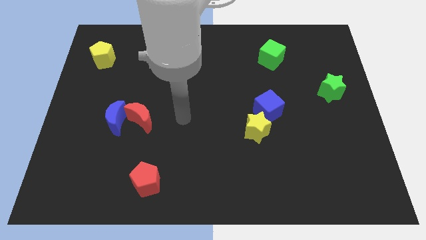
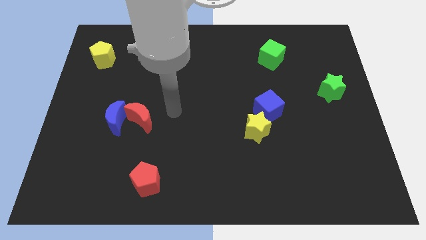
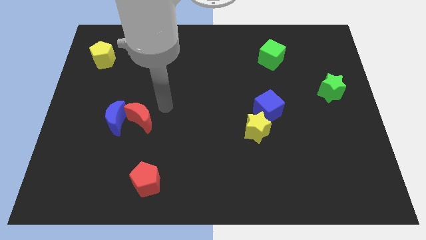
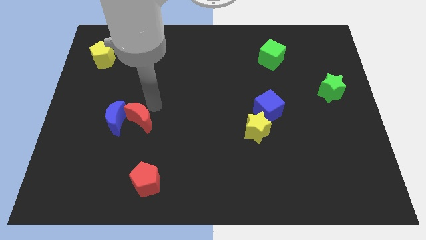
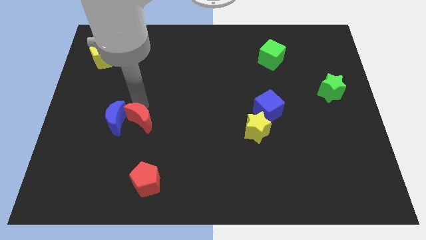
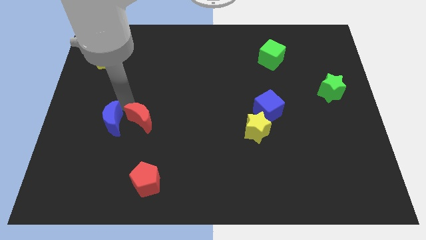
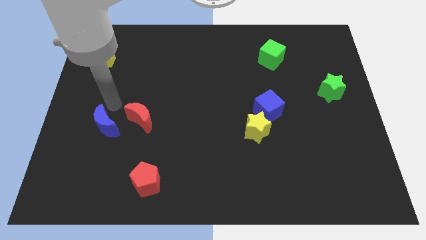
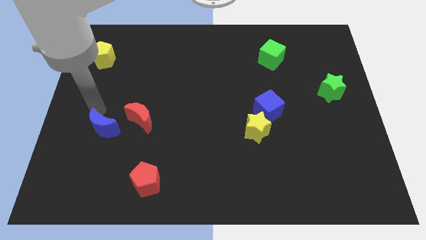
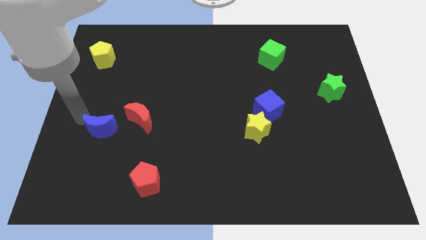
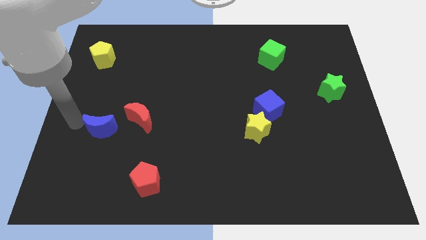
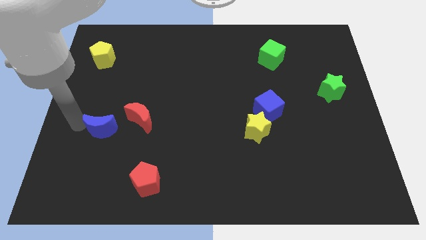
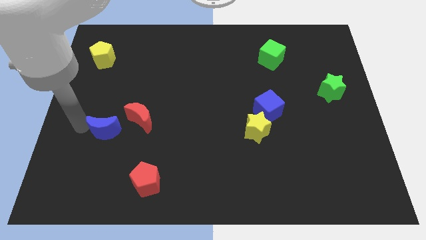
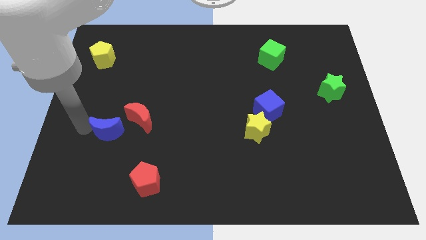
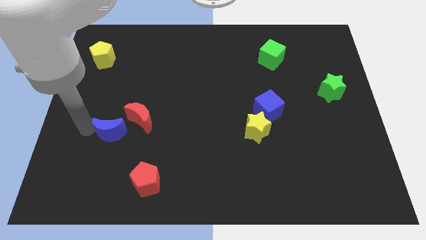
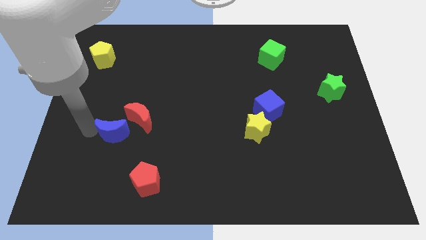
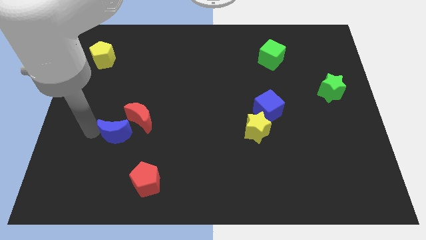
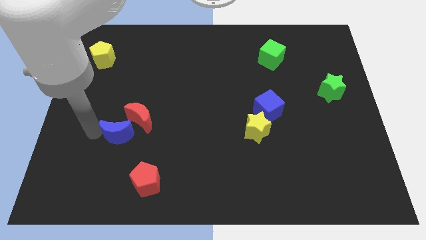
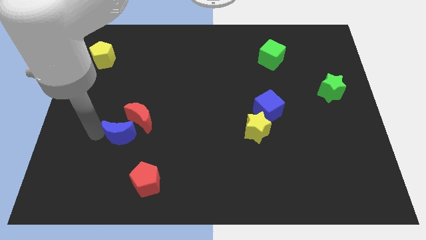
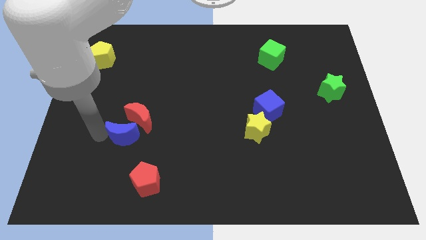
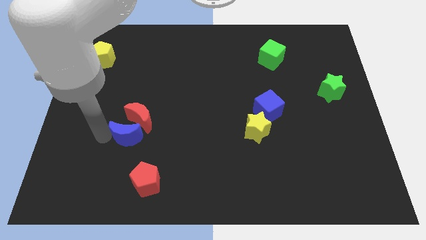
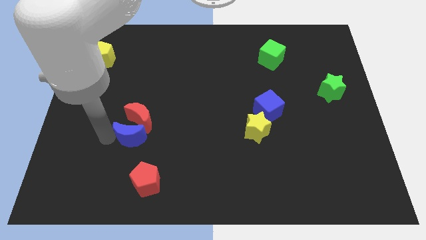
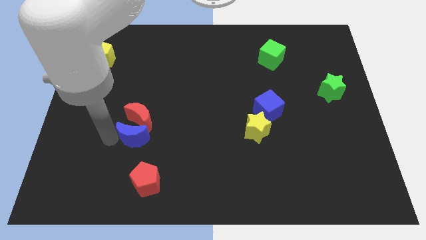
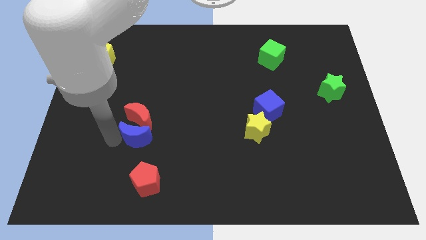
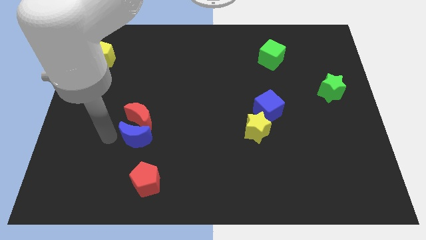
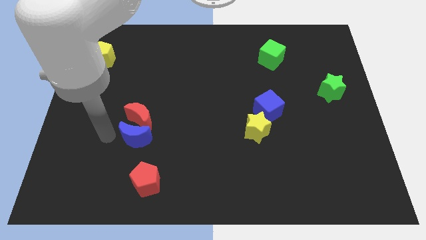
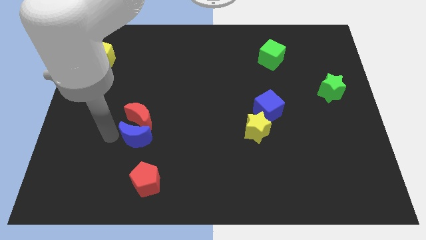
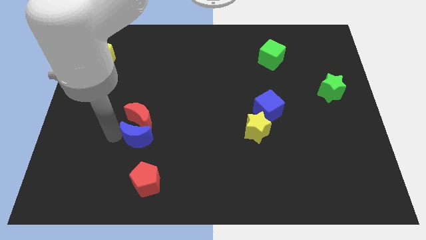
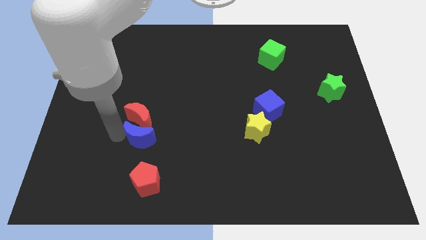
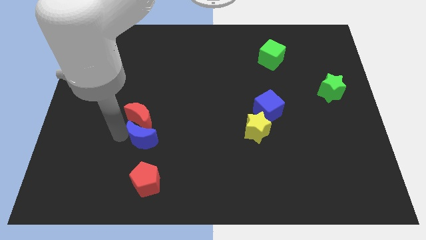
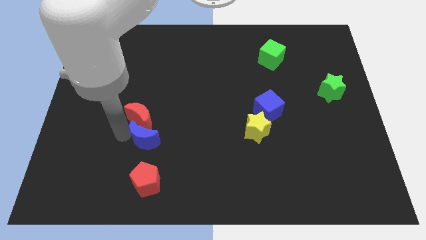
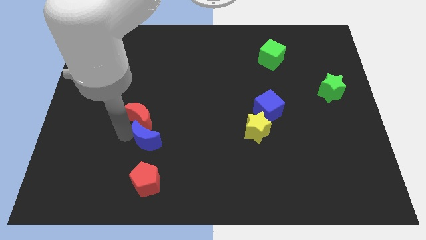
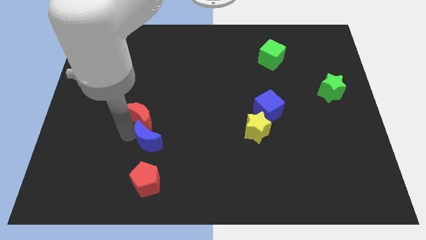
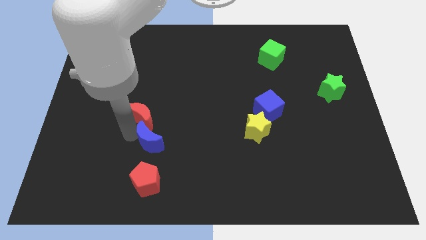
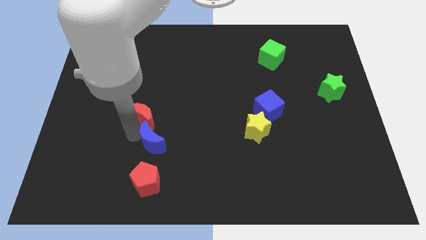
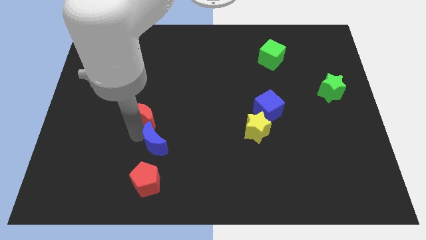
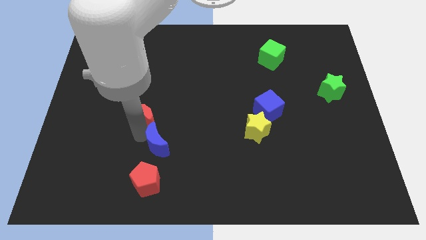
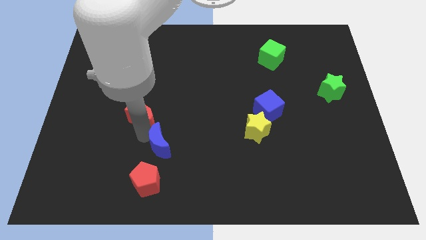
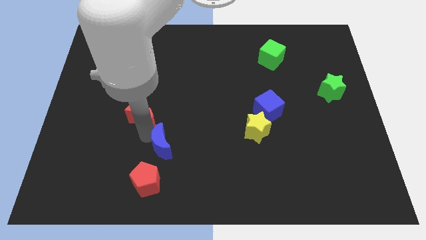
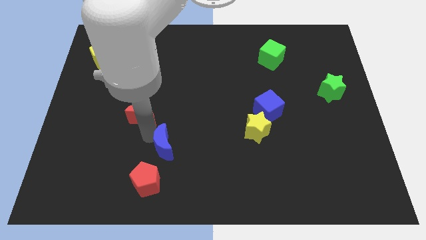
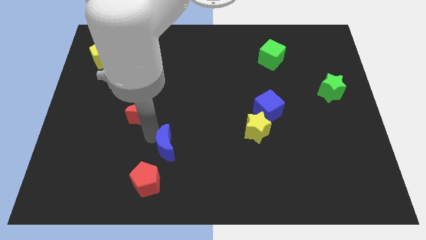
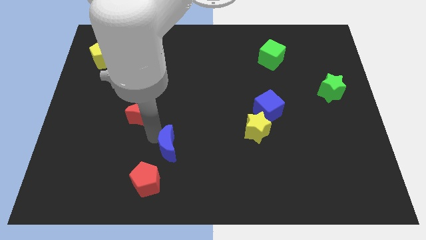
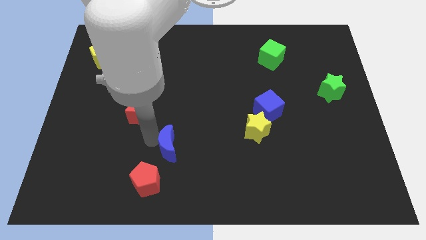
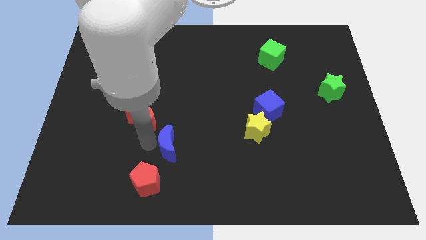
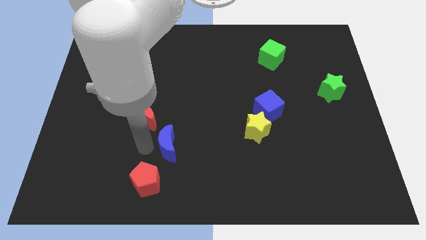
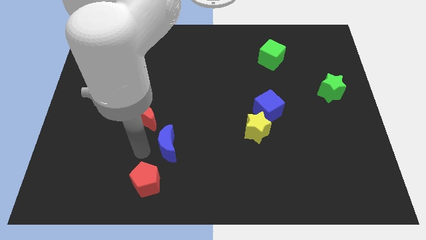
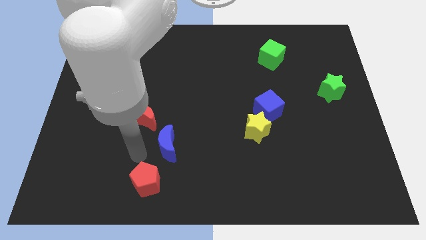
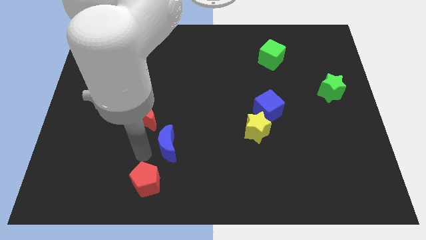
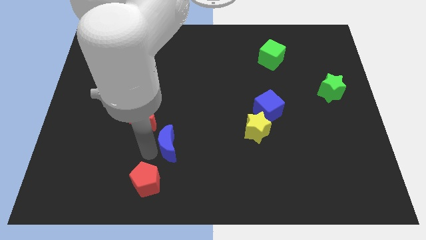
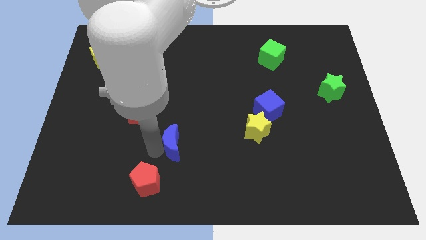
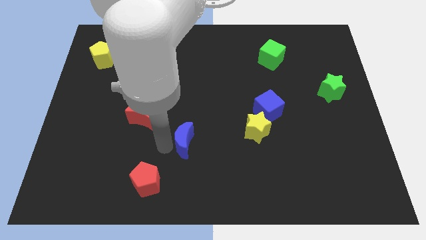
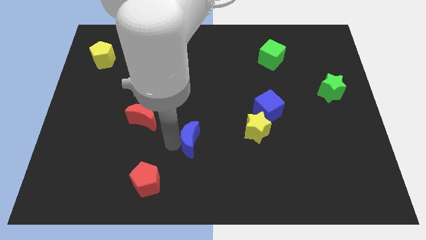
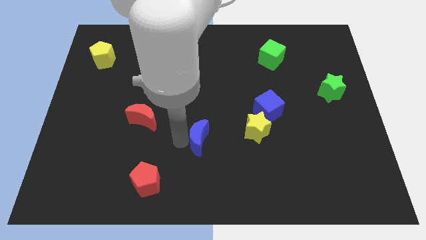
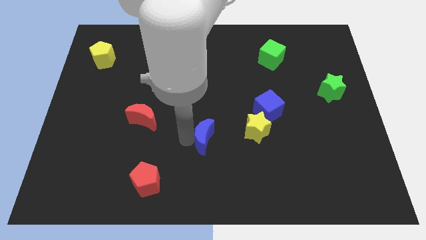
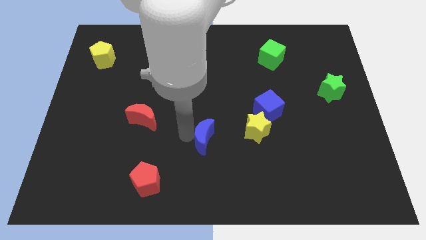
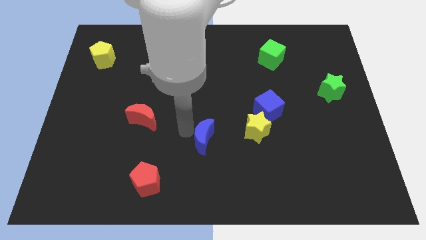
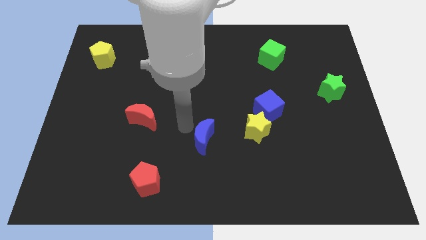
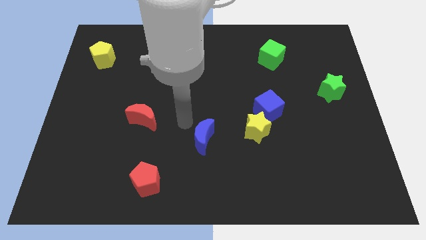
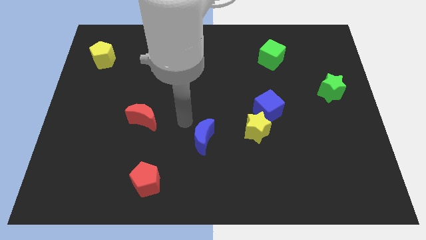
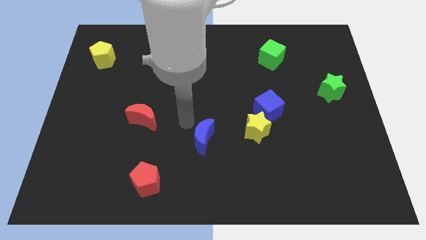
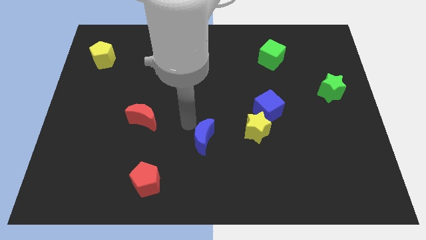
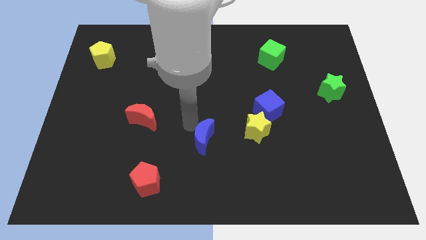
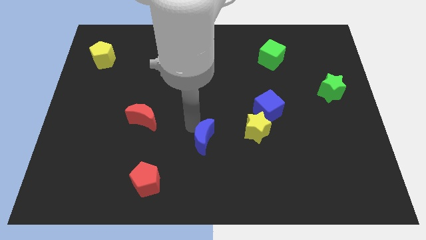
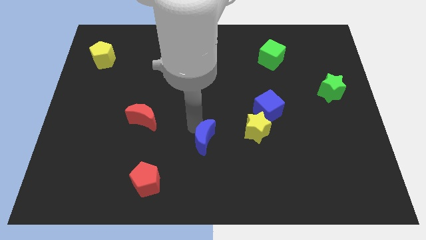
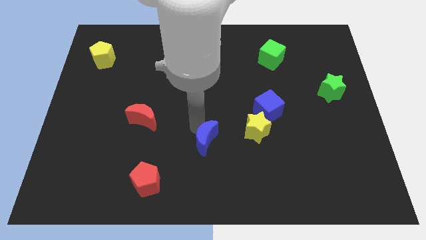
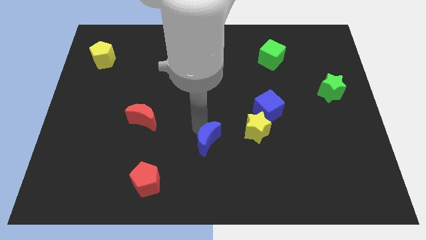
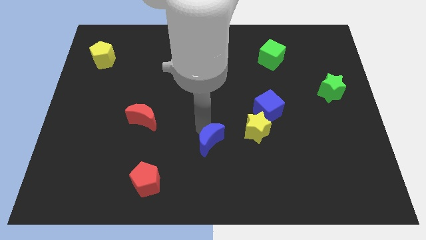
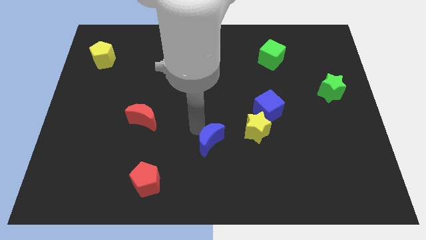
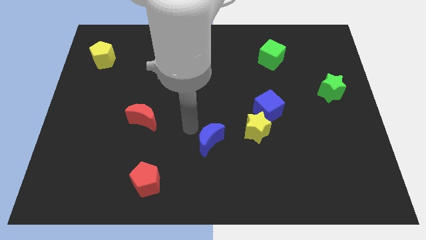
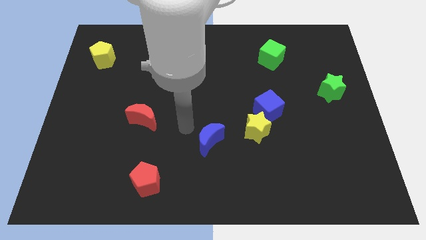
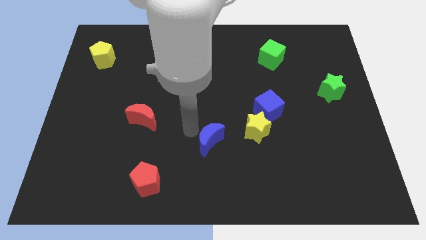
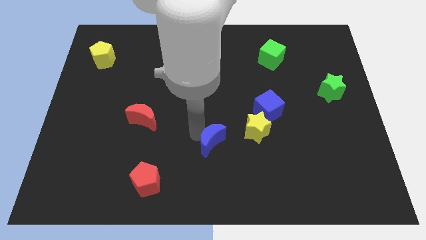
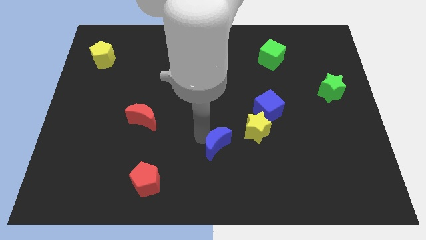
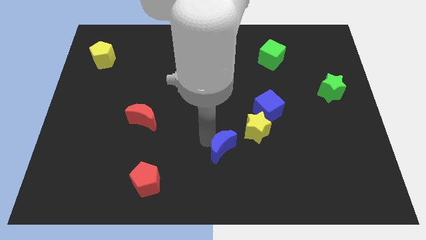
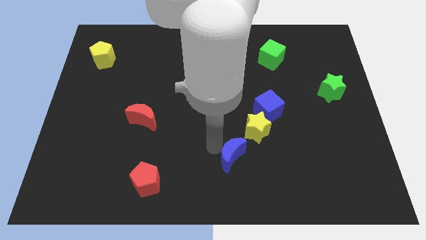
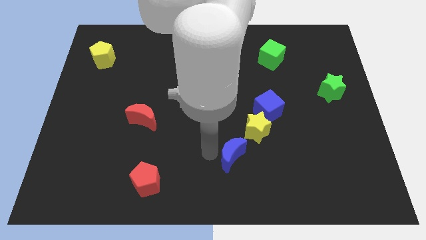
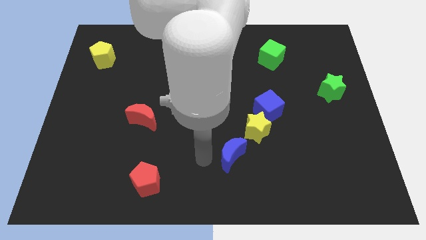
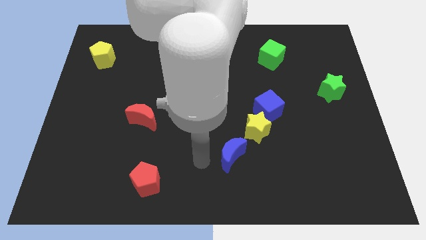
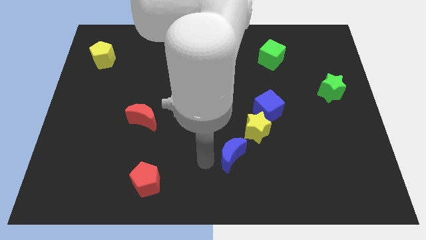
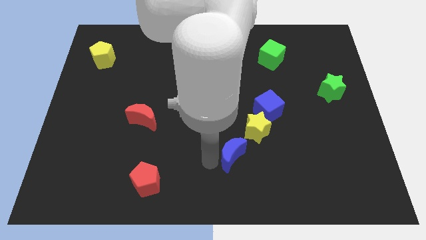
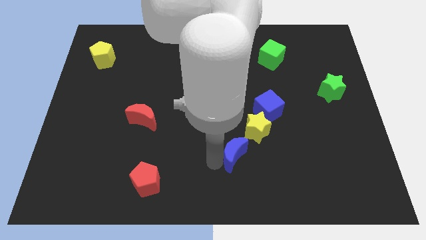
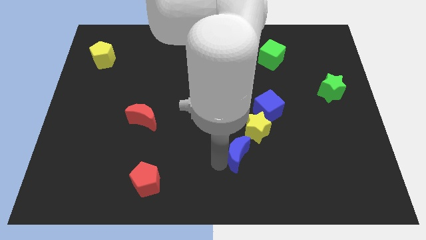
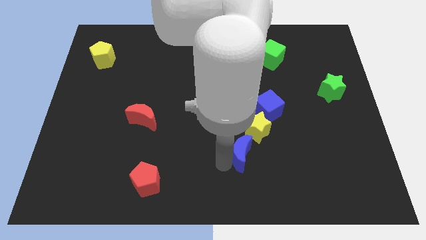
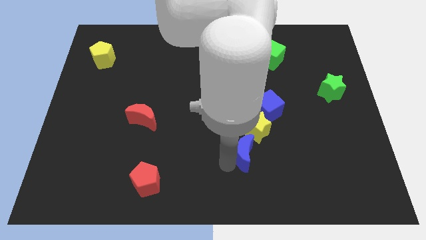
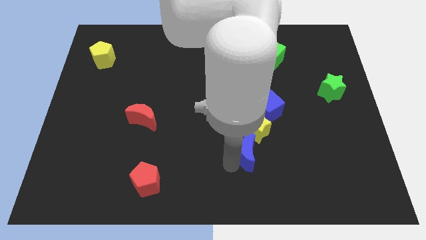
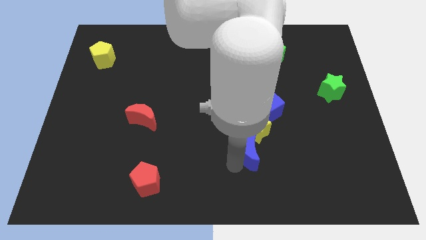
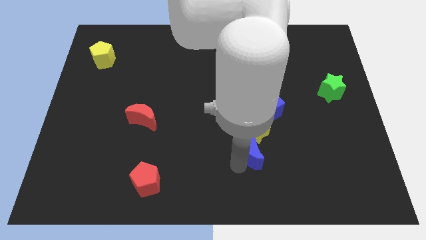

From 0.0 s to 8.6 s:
move the blue moon to the bottom side of the blue cube
